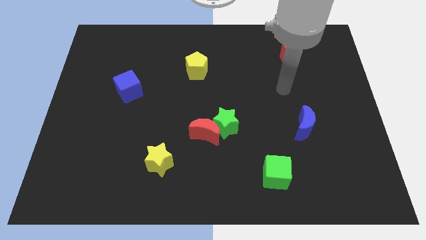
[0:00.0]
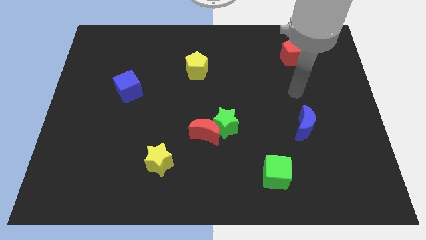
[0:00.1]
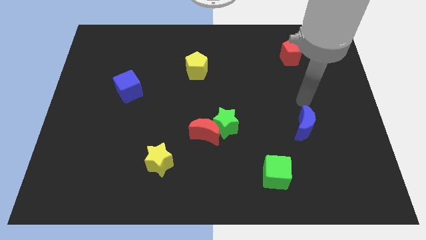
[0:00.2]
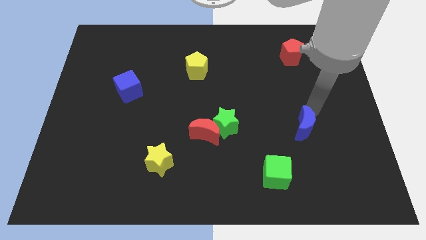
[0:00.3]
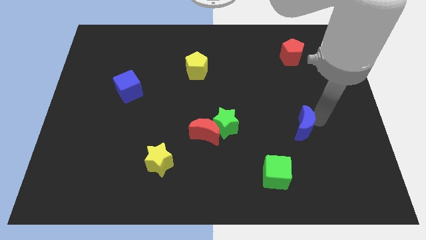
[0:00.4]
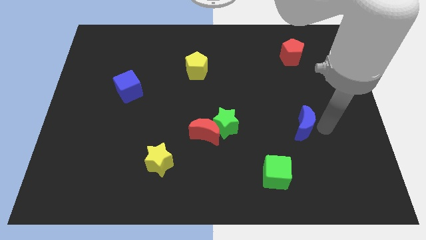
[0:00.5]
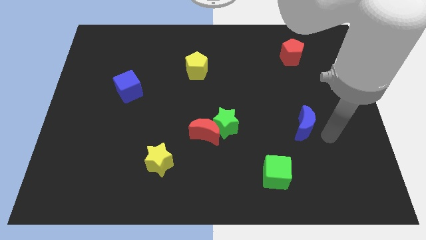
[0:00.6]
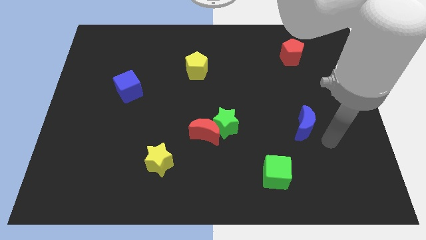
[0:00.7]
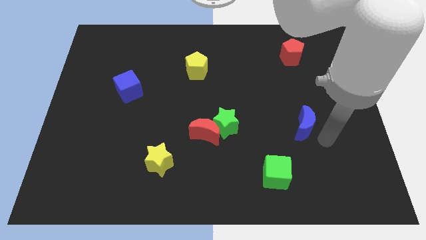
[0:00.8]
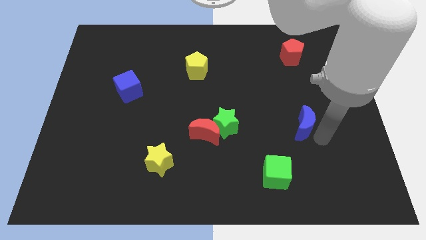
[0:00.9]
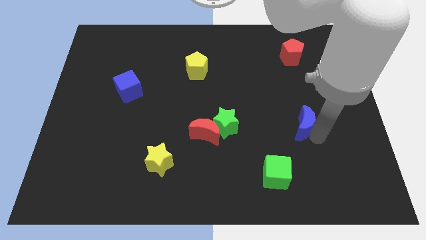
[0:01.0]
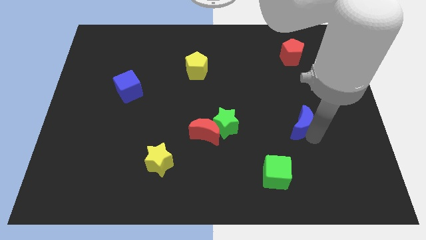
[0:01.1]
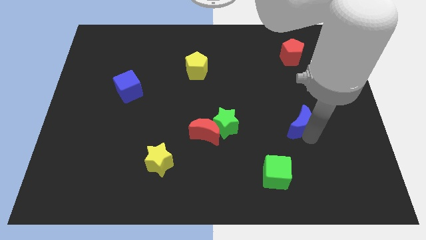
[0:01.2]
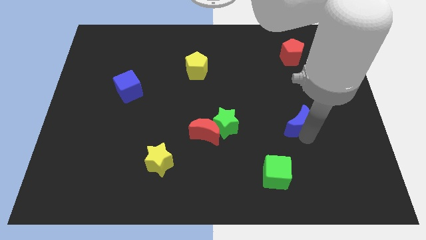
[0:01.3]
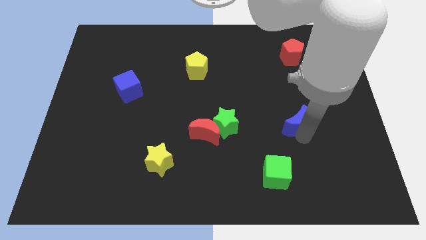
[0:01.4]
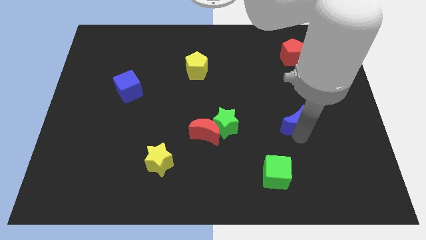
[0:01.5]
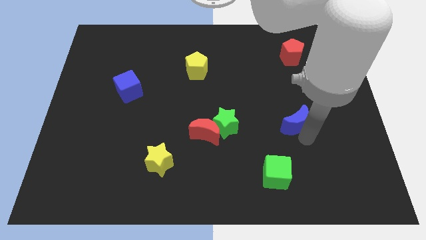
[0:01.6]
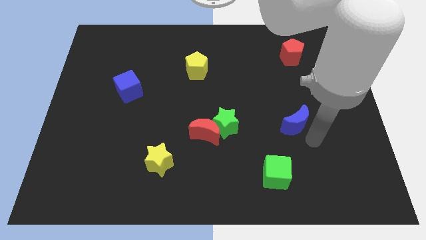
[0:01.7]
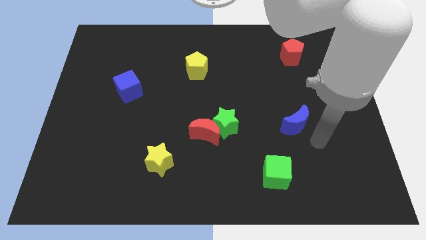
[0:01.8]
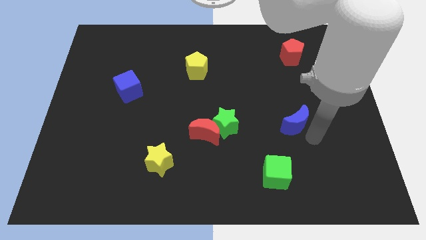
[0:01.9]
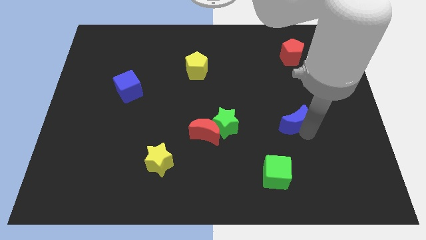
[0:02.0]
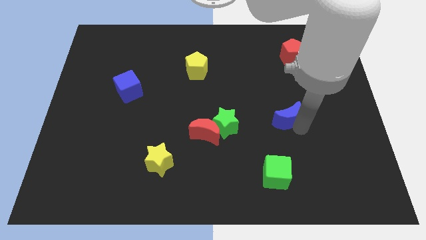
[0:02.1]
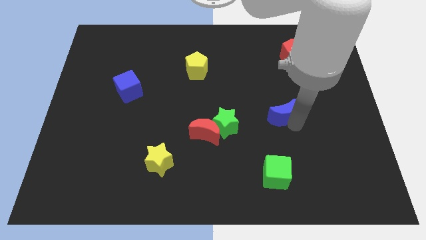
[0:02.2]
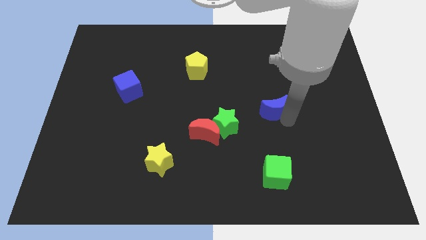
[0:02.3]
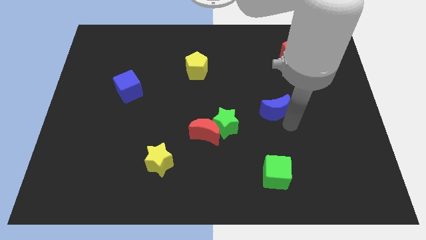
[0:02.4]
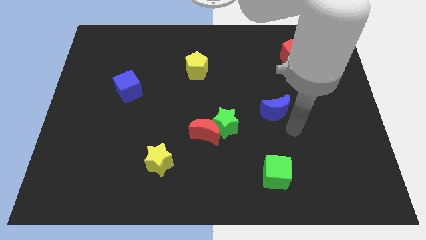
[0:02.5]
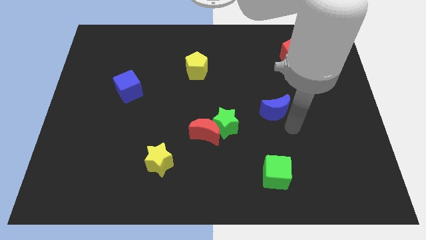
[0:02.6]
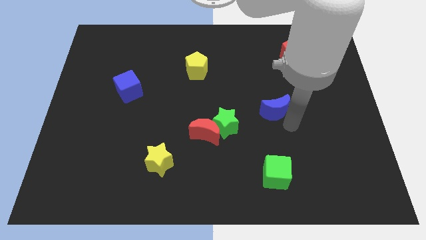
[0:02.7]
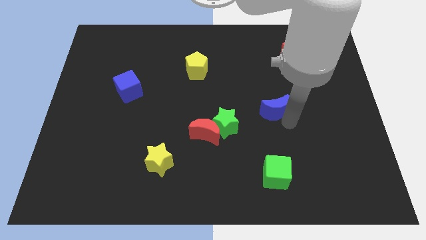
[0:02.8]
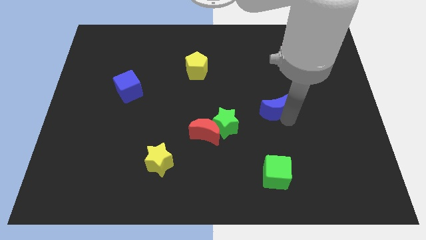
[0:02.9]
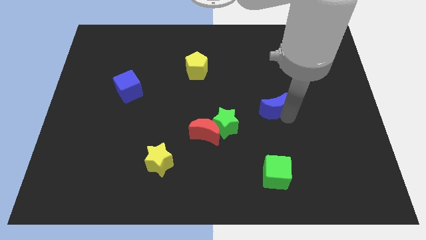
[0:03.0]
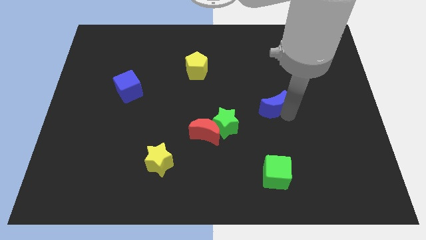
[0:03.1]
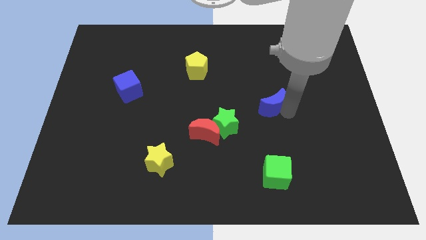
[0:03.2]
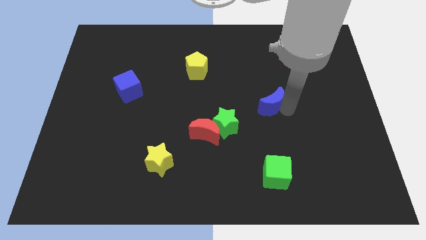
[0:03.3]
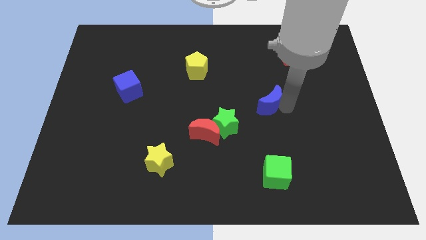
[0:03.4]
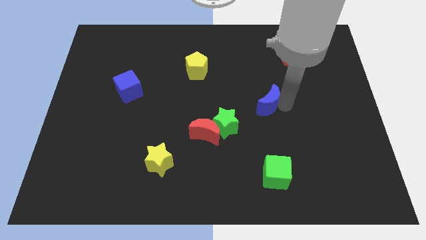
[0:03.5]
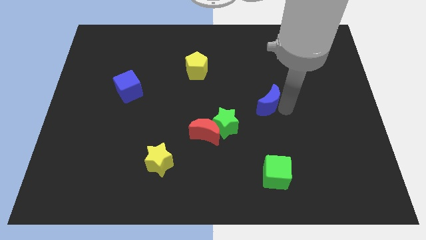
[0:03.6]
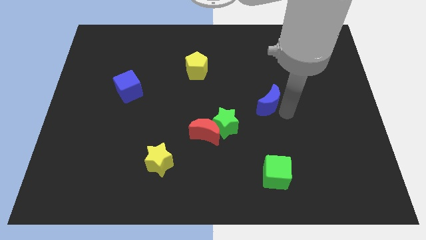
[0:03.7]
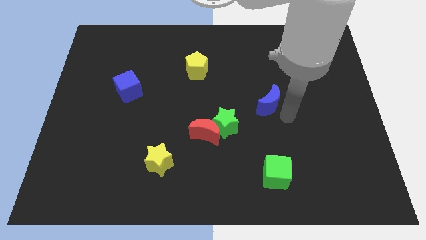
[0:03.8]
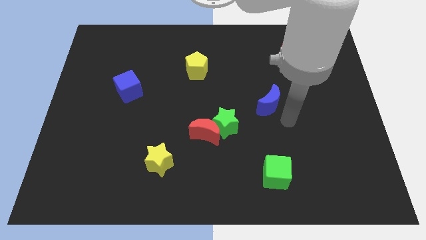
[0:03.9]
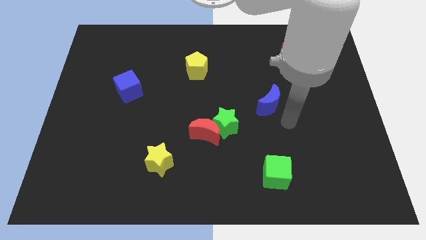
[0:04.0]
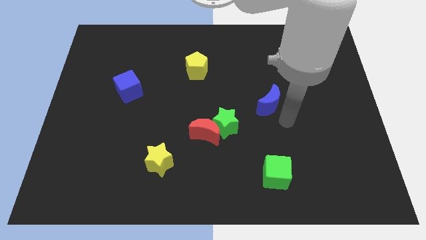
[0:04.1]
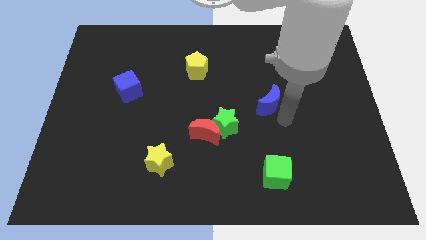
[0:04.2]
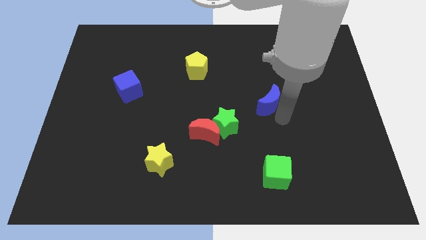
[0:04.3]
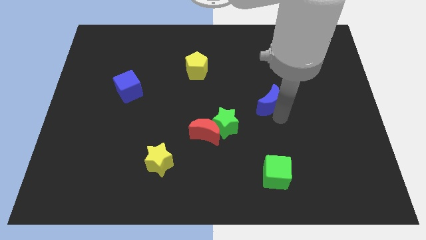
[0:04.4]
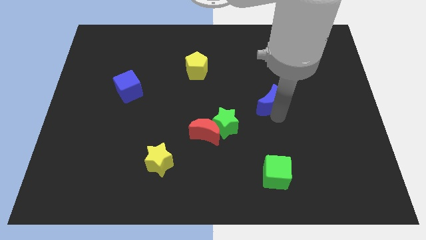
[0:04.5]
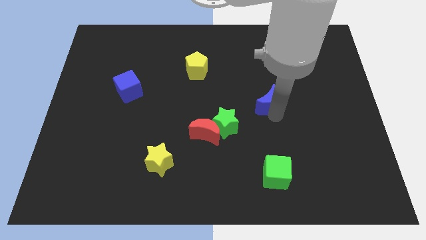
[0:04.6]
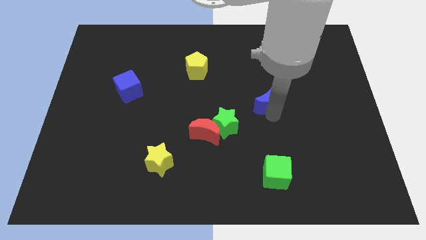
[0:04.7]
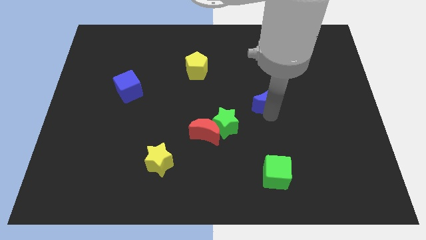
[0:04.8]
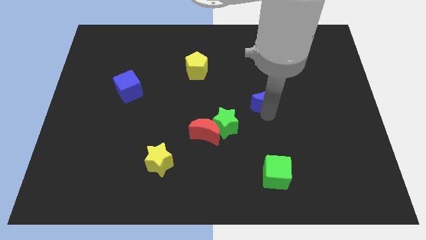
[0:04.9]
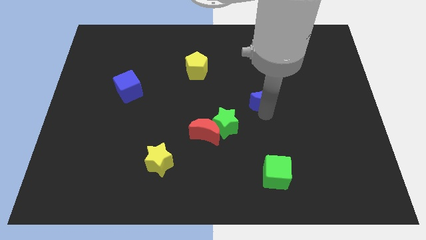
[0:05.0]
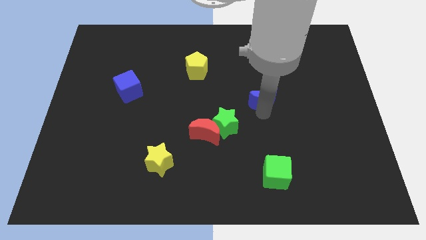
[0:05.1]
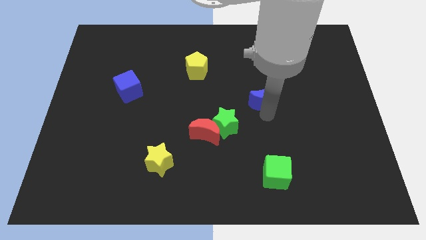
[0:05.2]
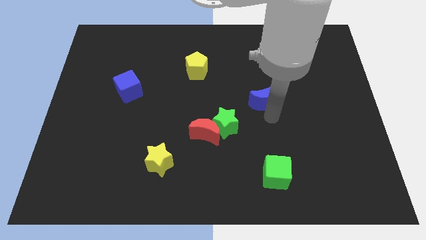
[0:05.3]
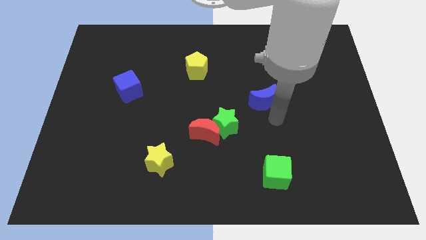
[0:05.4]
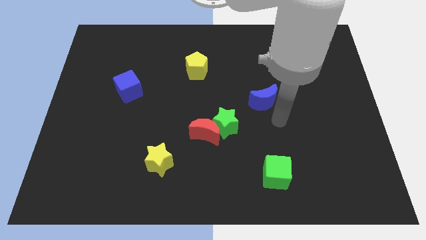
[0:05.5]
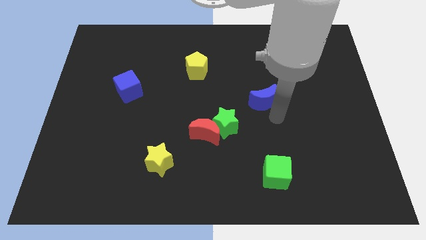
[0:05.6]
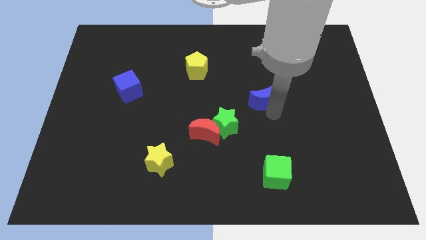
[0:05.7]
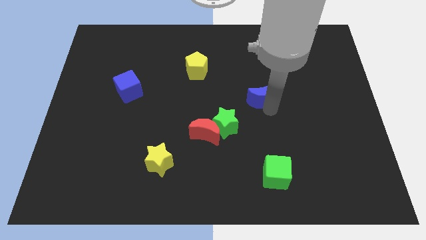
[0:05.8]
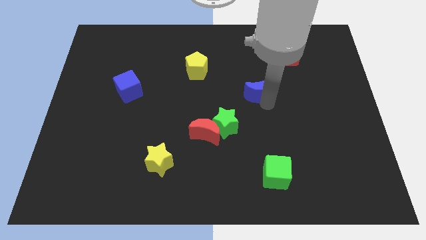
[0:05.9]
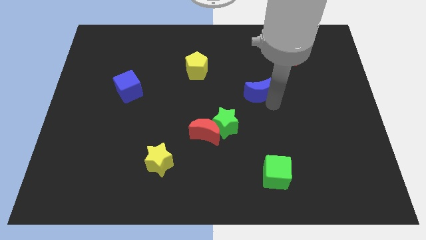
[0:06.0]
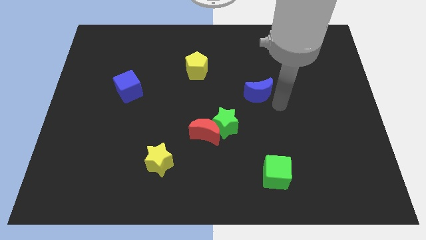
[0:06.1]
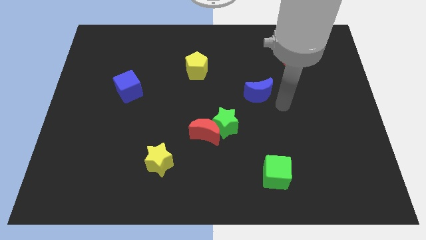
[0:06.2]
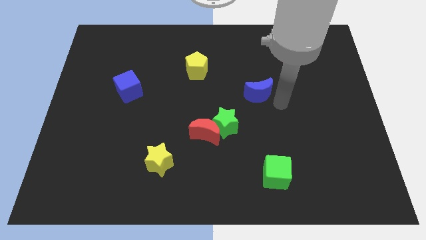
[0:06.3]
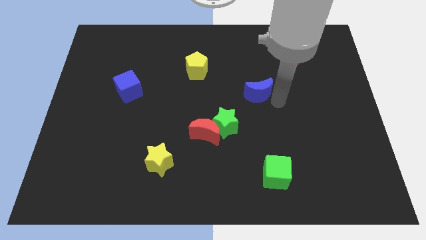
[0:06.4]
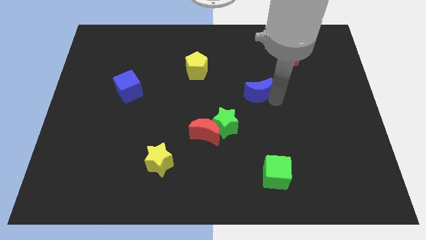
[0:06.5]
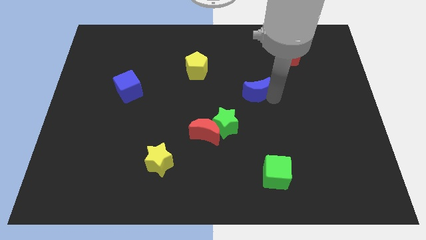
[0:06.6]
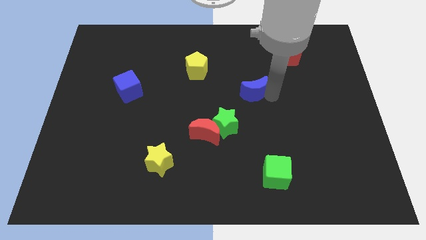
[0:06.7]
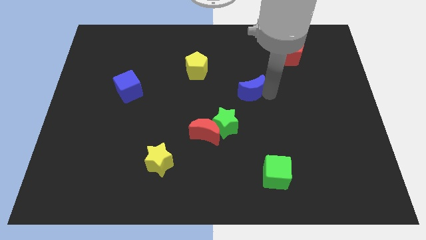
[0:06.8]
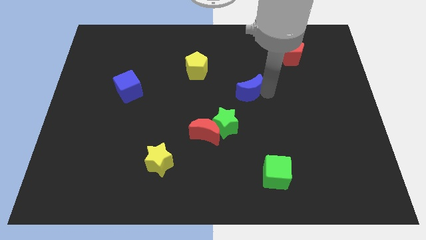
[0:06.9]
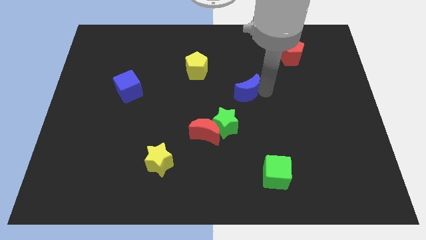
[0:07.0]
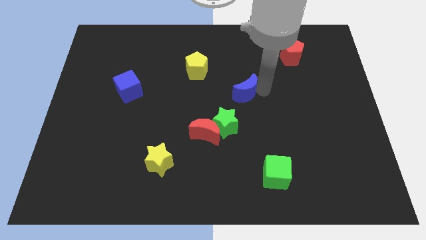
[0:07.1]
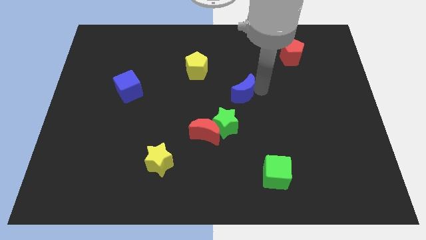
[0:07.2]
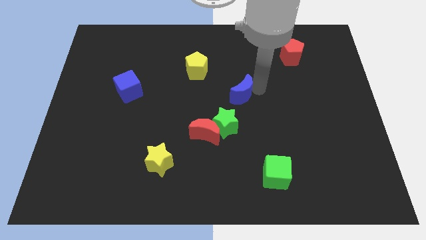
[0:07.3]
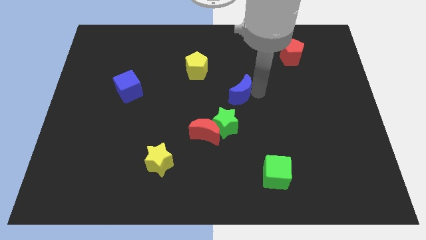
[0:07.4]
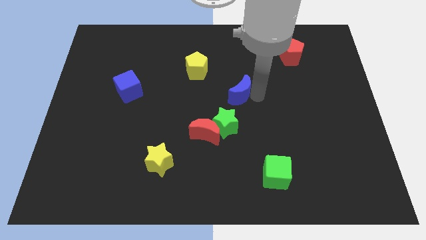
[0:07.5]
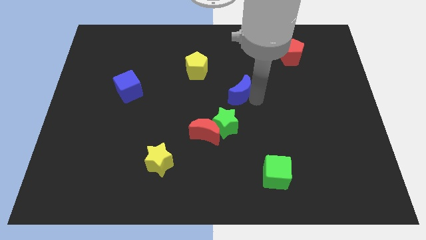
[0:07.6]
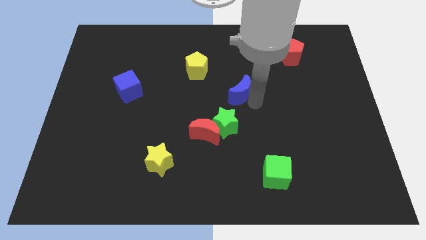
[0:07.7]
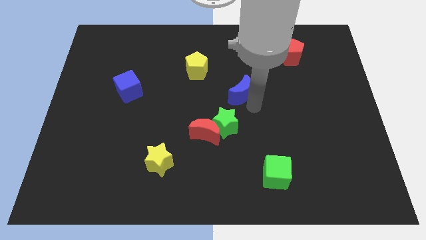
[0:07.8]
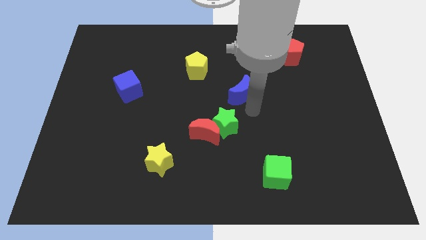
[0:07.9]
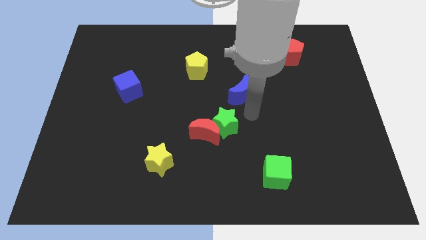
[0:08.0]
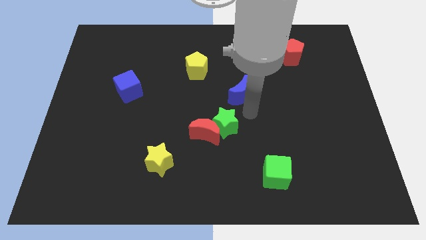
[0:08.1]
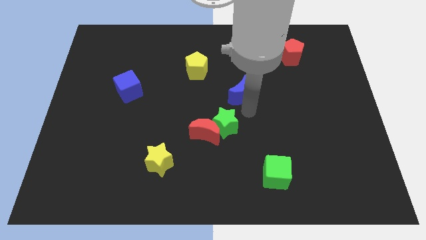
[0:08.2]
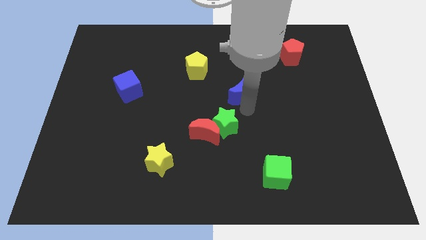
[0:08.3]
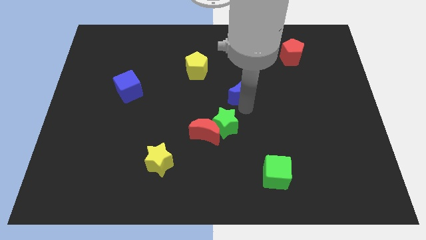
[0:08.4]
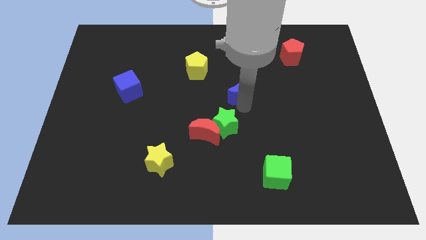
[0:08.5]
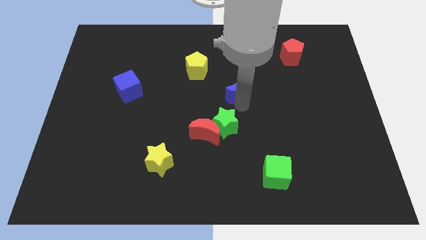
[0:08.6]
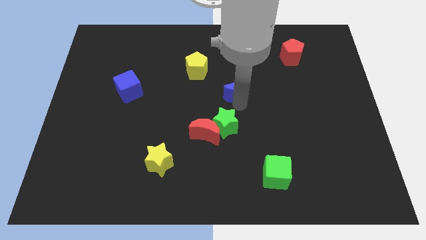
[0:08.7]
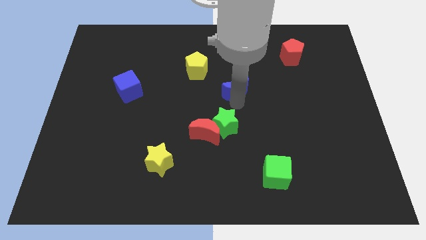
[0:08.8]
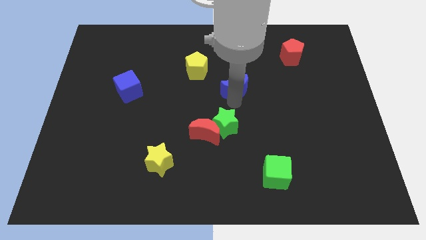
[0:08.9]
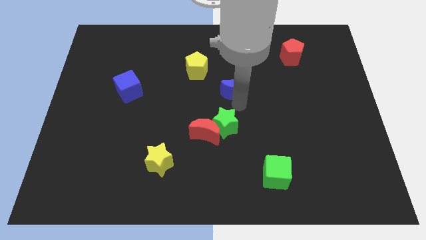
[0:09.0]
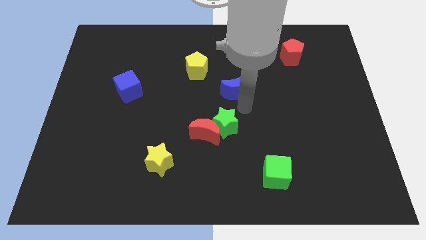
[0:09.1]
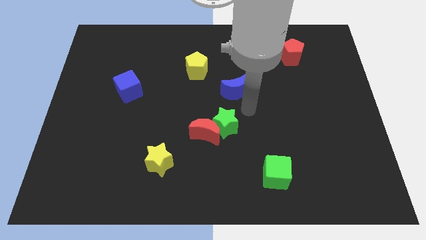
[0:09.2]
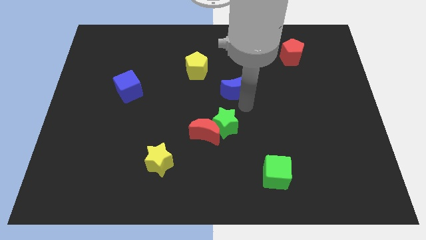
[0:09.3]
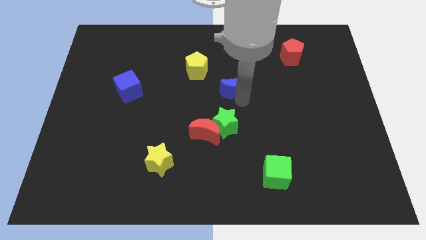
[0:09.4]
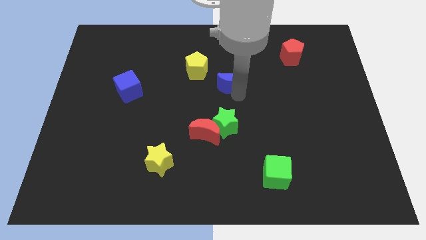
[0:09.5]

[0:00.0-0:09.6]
move the blue moon upwards and to the left
